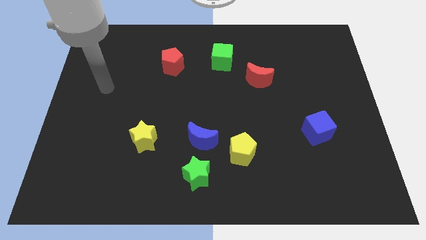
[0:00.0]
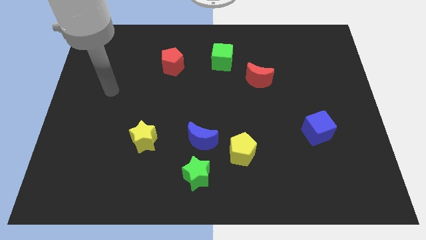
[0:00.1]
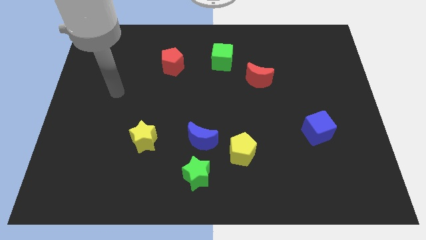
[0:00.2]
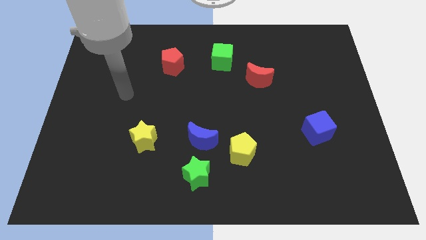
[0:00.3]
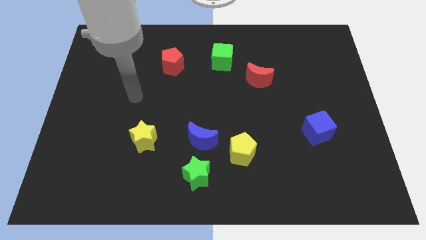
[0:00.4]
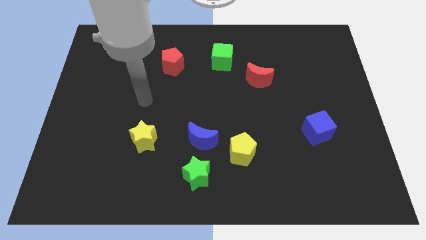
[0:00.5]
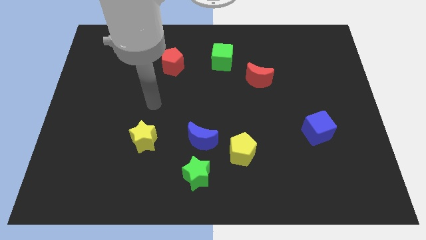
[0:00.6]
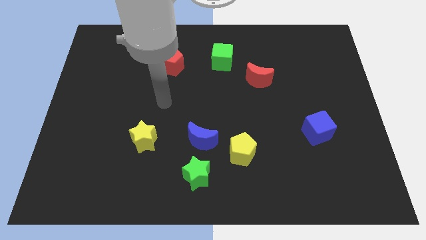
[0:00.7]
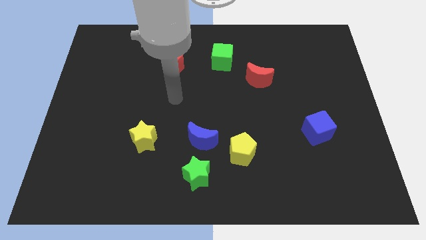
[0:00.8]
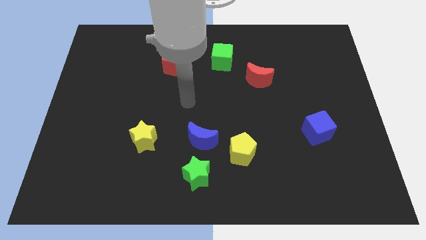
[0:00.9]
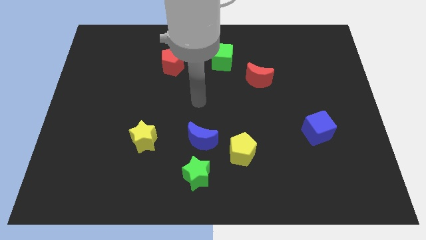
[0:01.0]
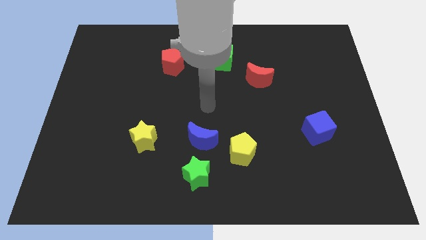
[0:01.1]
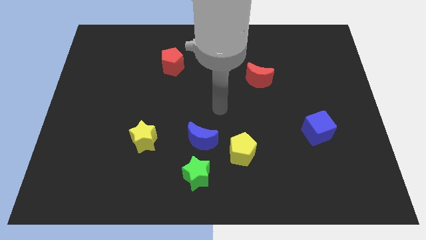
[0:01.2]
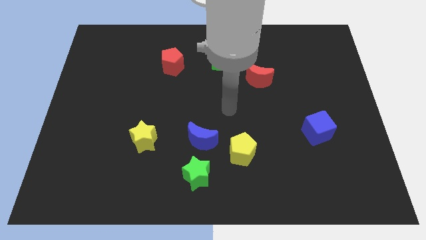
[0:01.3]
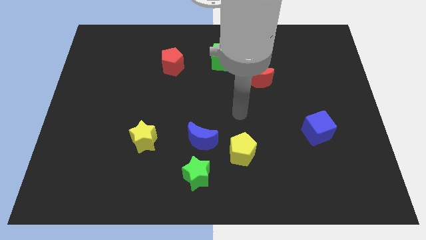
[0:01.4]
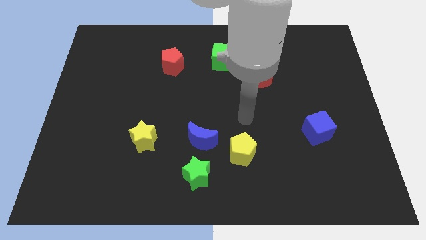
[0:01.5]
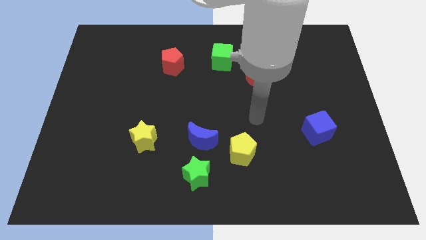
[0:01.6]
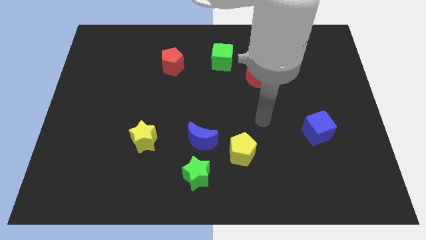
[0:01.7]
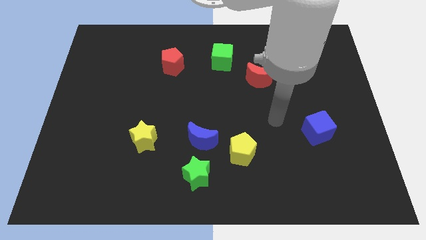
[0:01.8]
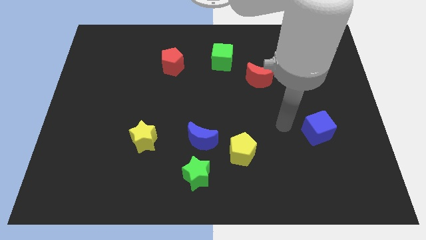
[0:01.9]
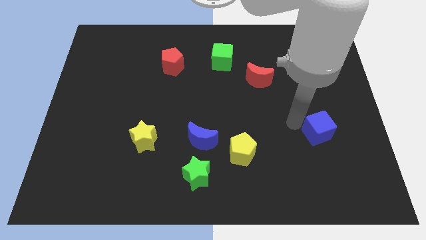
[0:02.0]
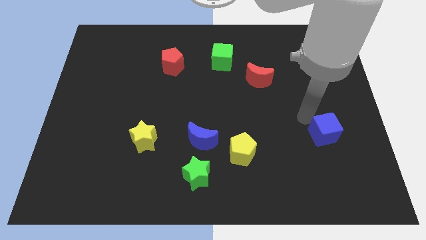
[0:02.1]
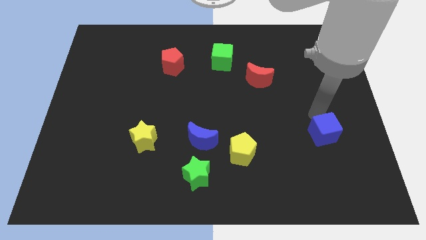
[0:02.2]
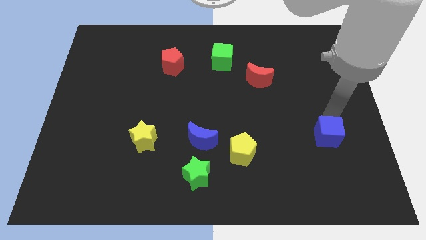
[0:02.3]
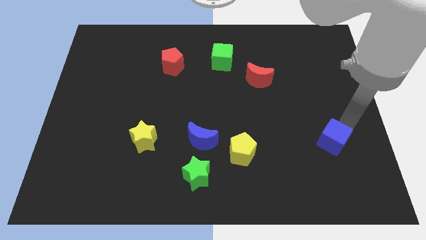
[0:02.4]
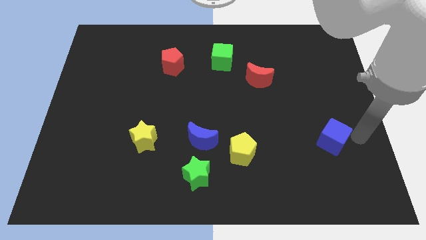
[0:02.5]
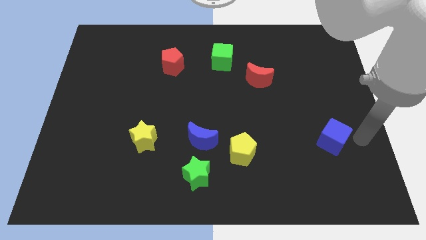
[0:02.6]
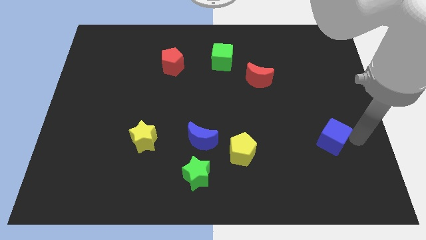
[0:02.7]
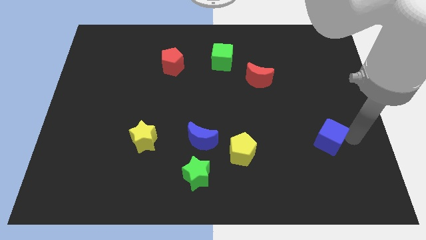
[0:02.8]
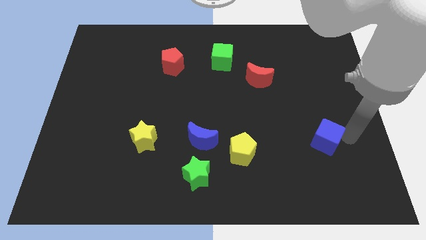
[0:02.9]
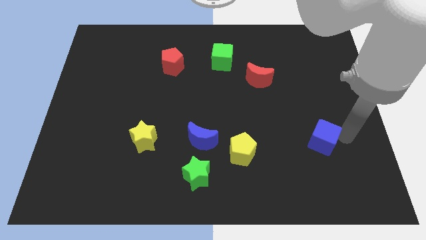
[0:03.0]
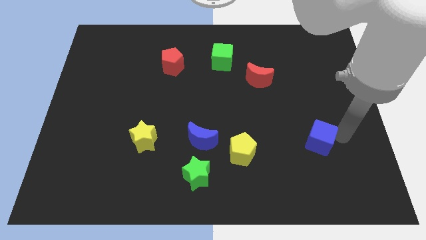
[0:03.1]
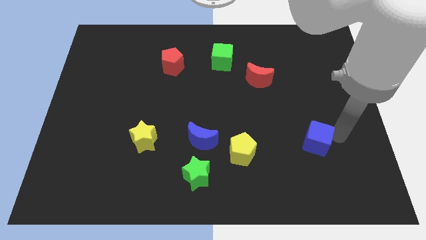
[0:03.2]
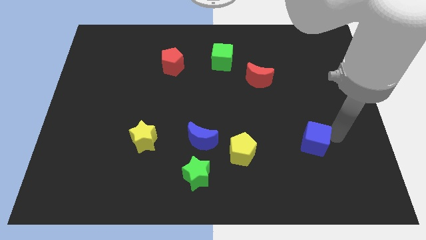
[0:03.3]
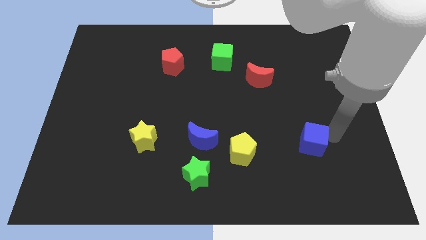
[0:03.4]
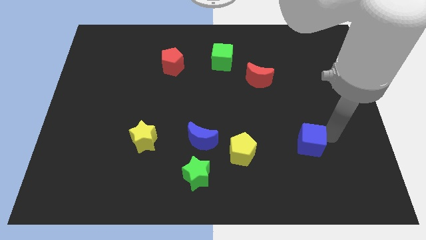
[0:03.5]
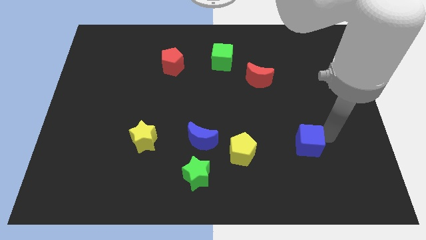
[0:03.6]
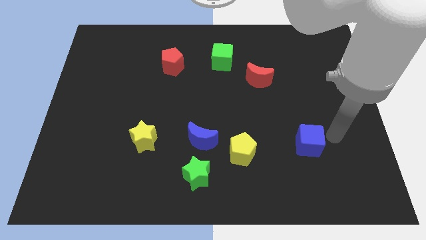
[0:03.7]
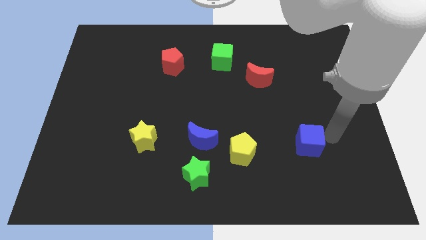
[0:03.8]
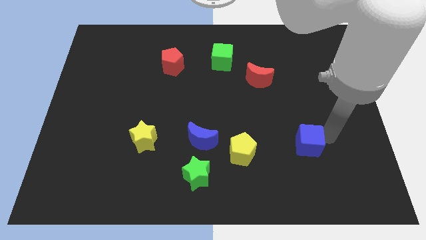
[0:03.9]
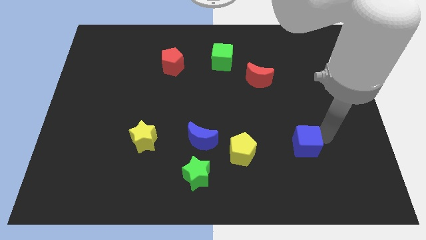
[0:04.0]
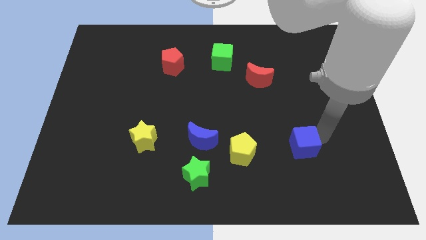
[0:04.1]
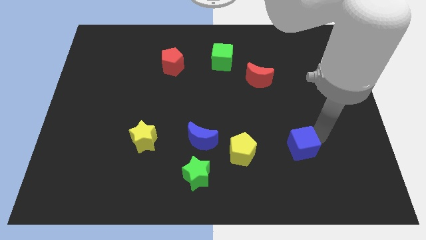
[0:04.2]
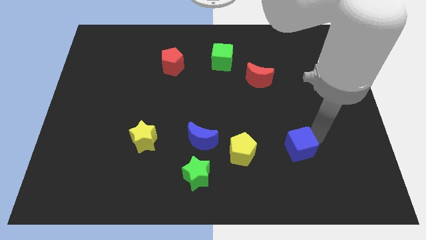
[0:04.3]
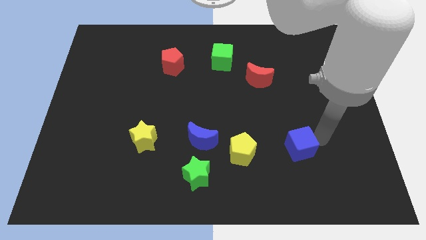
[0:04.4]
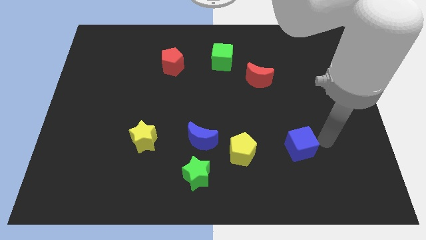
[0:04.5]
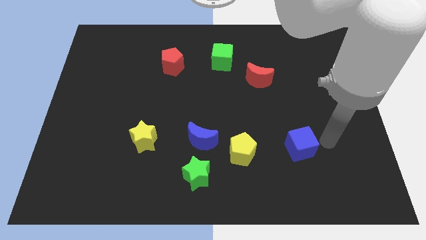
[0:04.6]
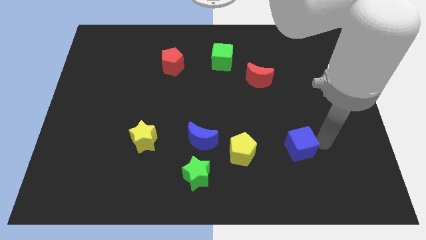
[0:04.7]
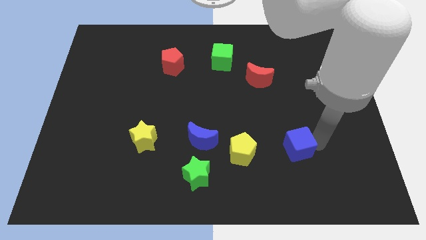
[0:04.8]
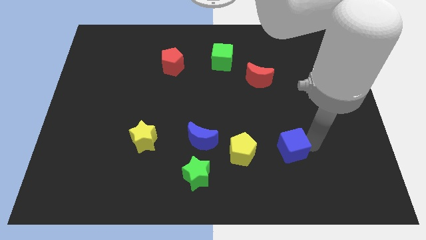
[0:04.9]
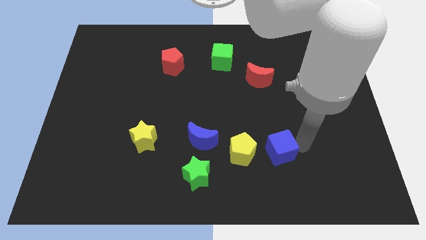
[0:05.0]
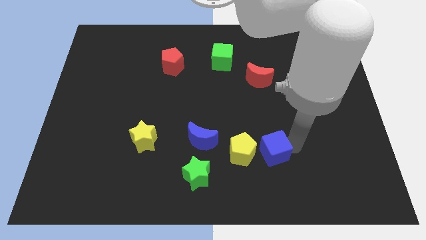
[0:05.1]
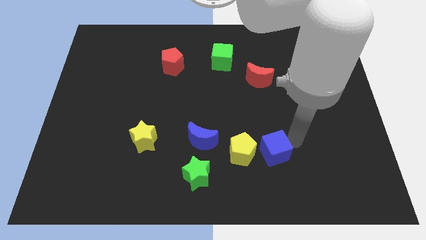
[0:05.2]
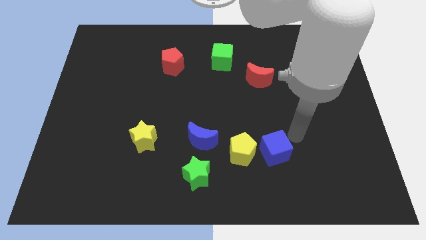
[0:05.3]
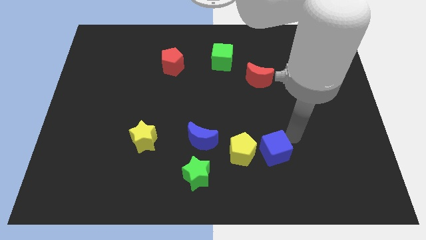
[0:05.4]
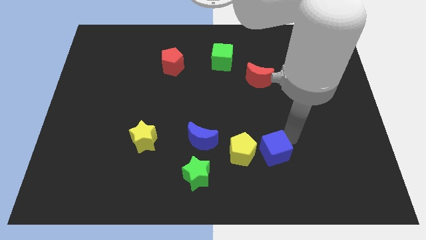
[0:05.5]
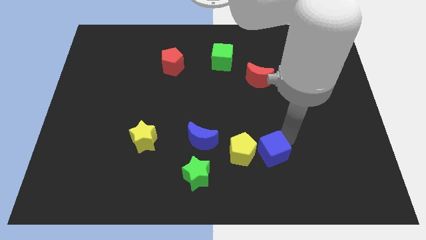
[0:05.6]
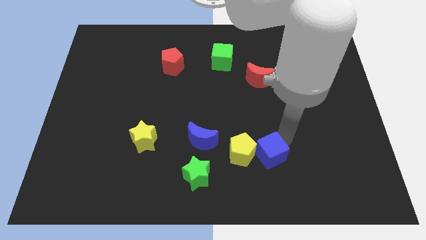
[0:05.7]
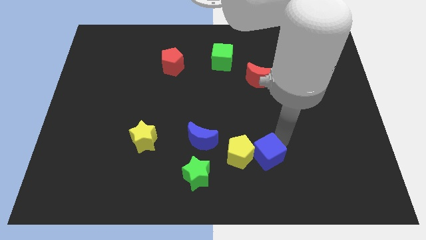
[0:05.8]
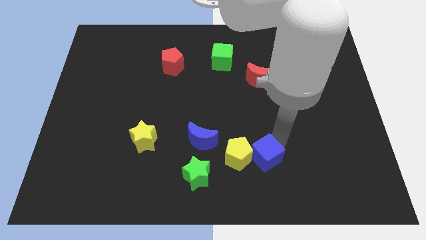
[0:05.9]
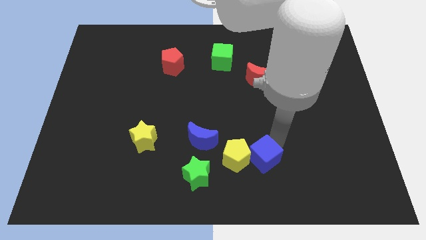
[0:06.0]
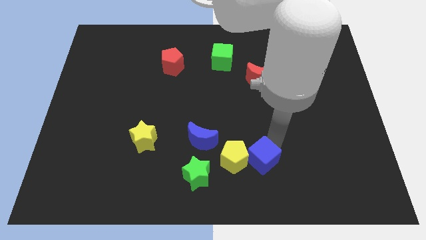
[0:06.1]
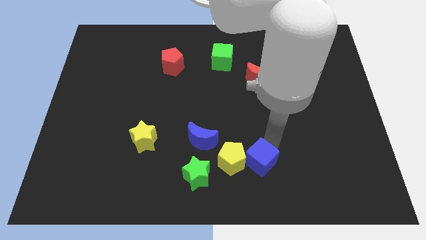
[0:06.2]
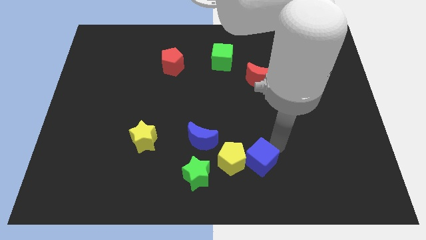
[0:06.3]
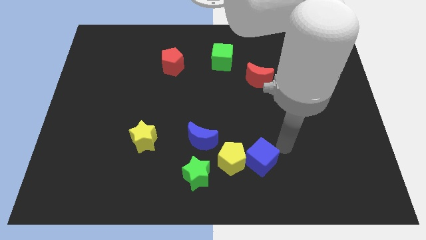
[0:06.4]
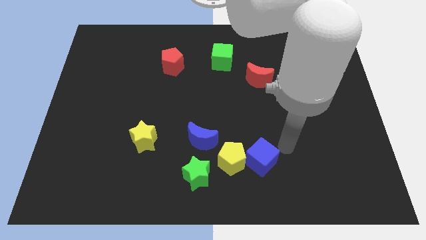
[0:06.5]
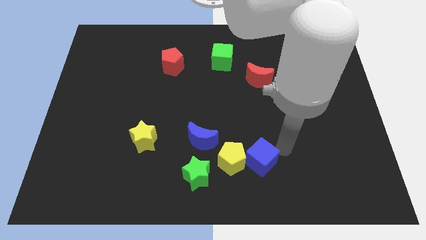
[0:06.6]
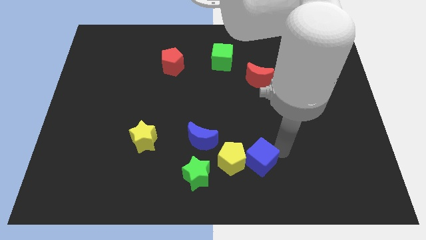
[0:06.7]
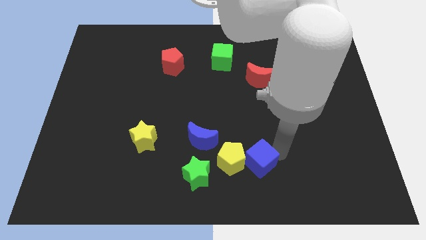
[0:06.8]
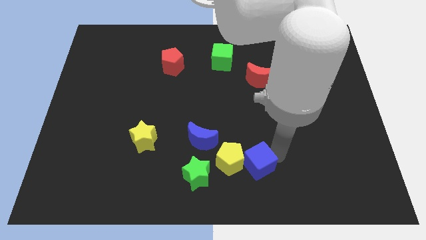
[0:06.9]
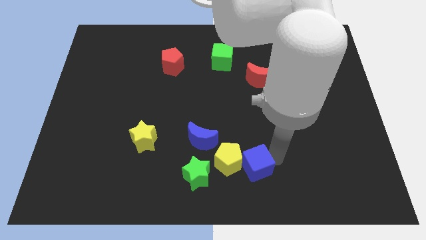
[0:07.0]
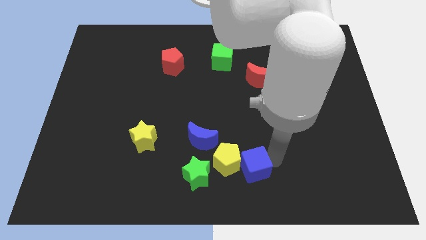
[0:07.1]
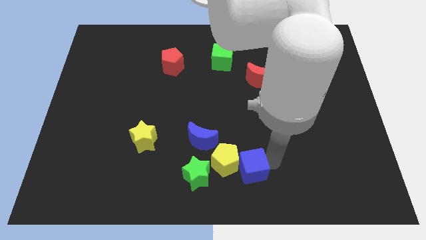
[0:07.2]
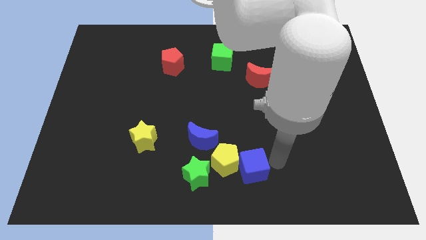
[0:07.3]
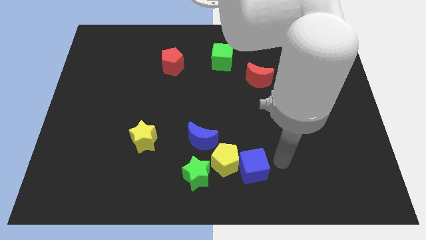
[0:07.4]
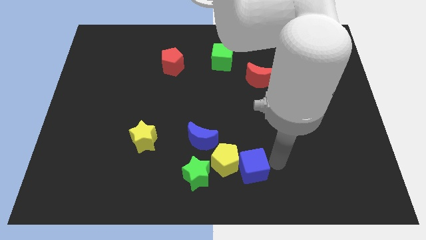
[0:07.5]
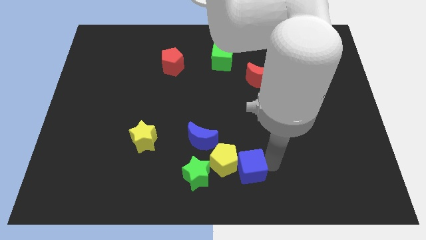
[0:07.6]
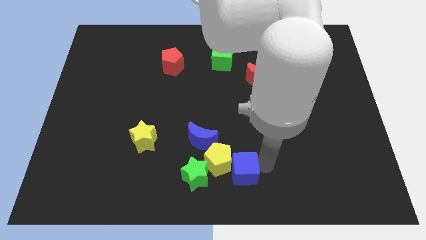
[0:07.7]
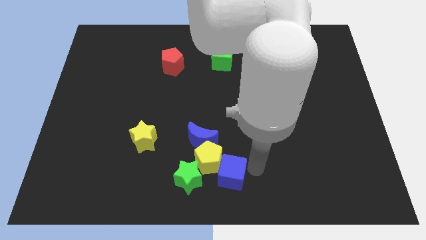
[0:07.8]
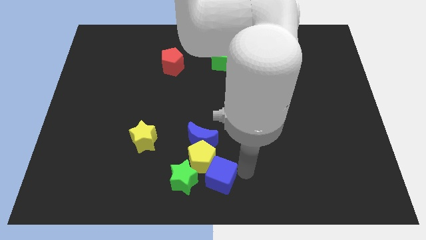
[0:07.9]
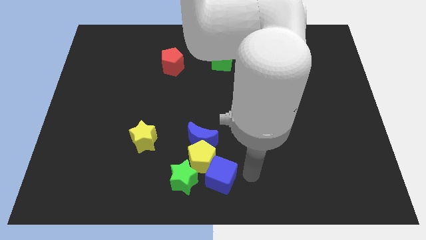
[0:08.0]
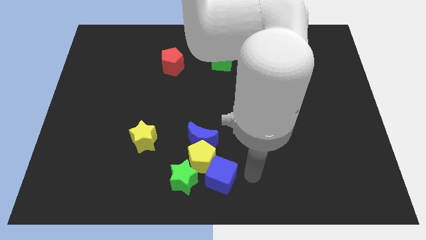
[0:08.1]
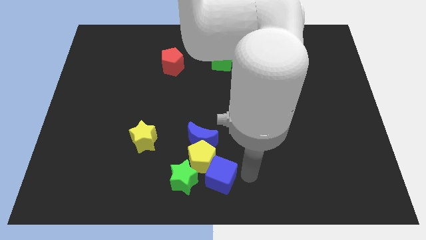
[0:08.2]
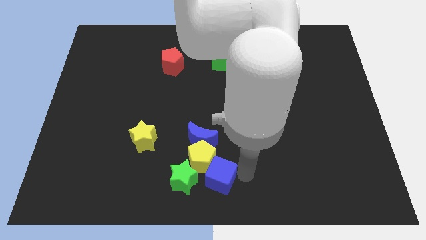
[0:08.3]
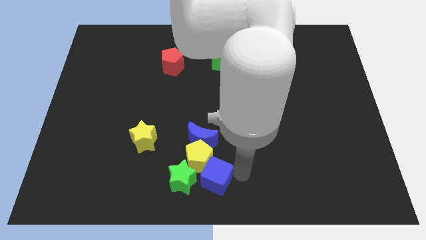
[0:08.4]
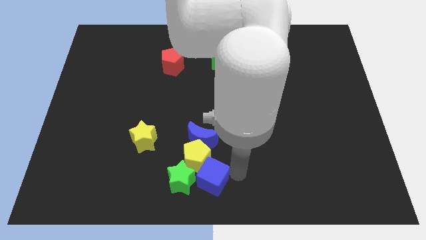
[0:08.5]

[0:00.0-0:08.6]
move the blue cube to the green star
